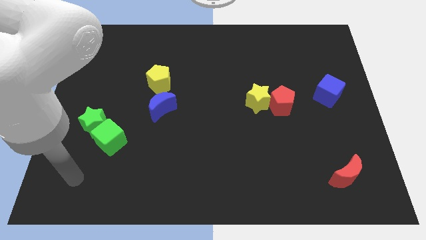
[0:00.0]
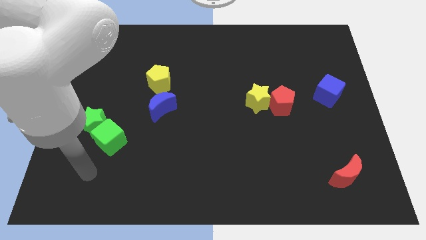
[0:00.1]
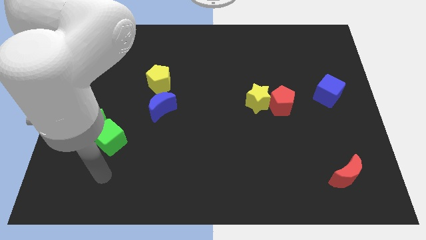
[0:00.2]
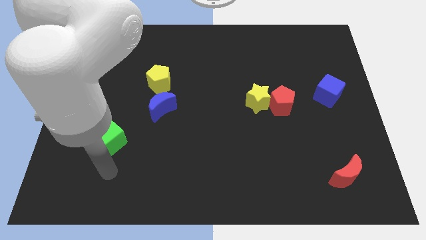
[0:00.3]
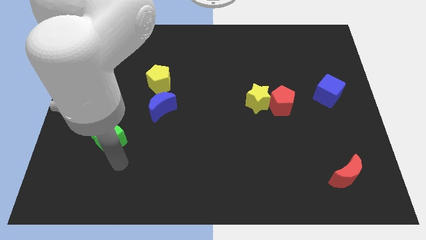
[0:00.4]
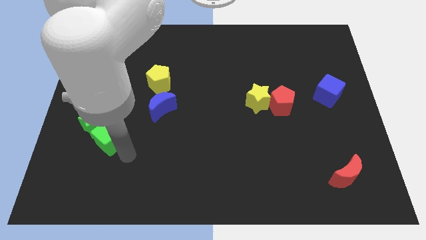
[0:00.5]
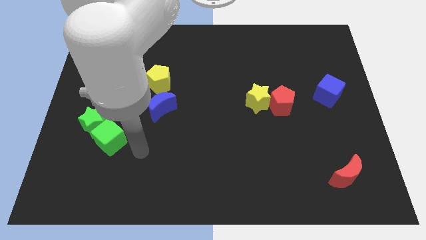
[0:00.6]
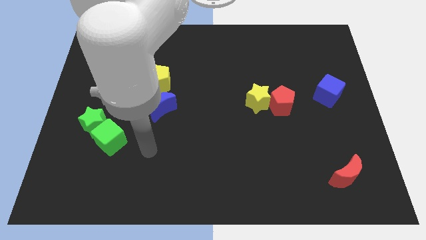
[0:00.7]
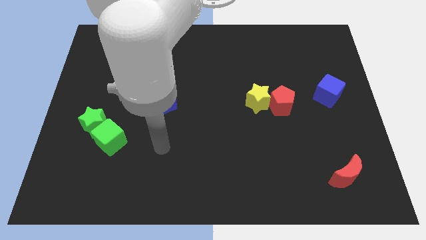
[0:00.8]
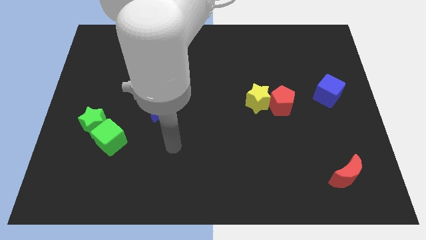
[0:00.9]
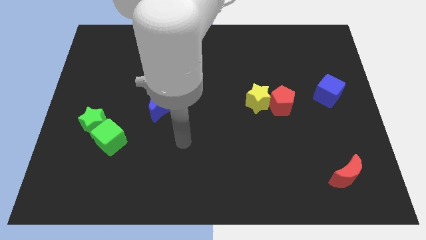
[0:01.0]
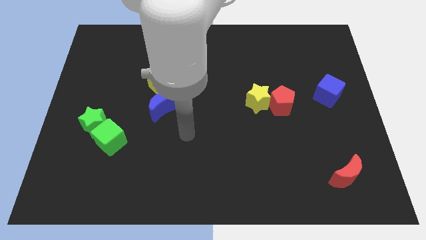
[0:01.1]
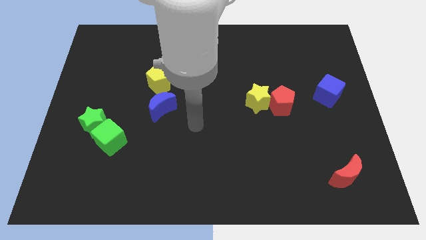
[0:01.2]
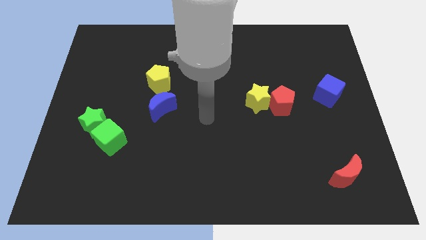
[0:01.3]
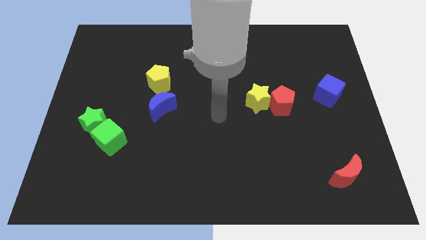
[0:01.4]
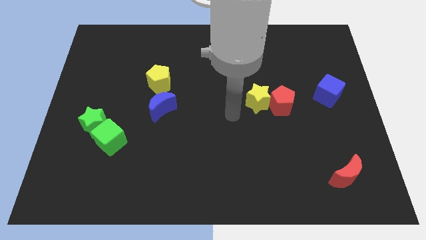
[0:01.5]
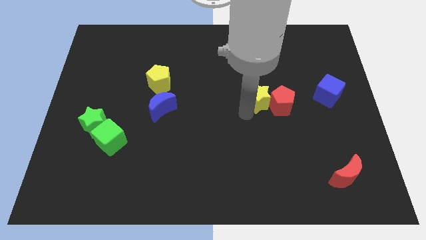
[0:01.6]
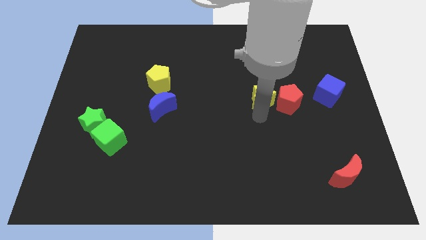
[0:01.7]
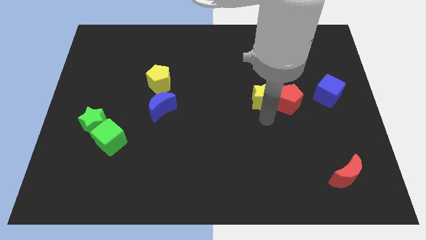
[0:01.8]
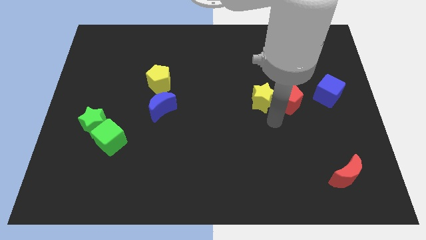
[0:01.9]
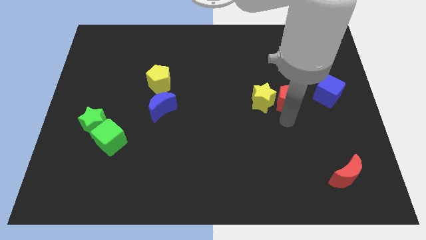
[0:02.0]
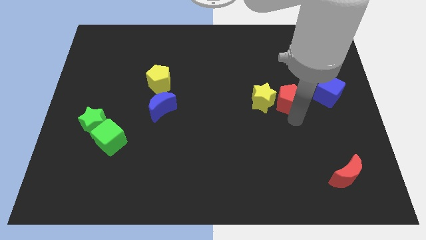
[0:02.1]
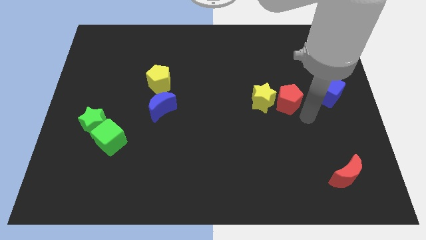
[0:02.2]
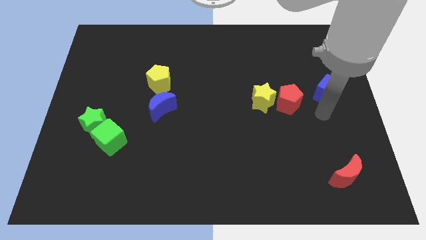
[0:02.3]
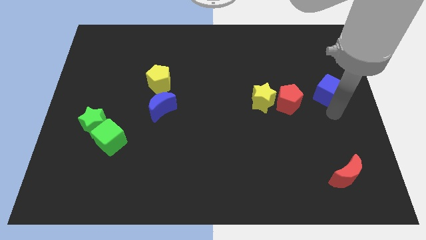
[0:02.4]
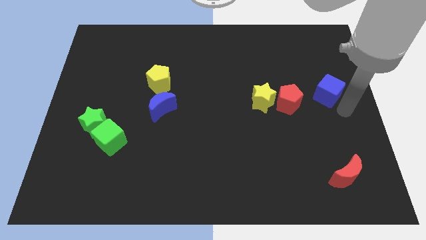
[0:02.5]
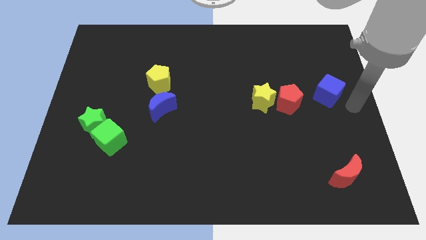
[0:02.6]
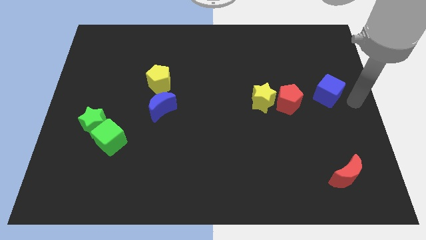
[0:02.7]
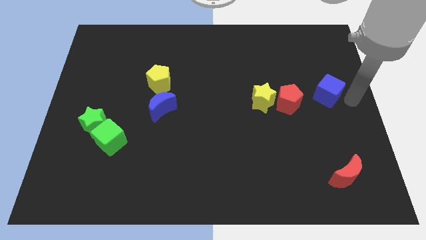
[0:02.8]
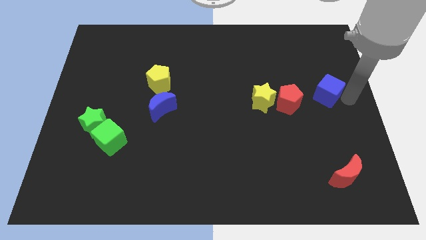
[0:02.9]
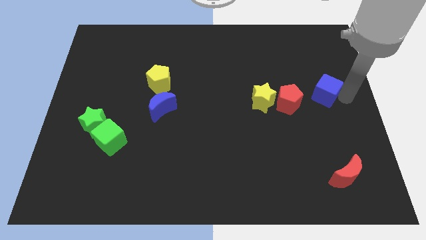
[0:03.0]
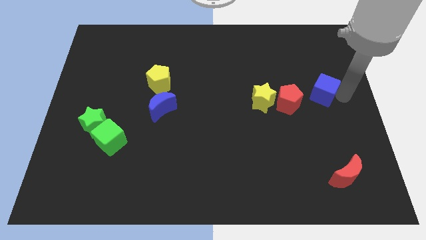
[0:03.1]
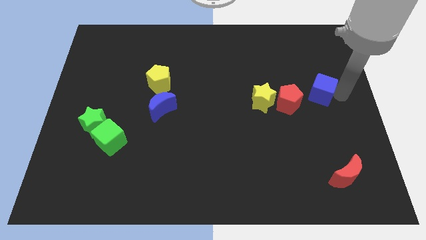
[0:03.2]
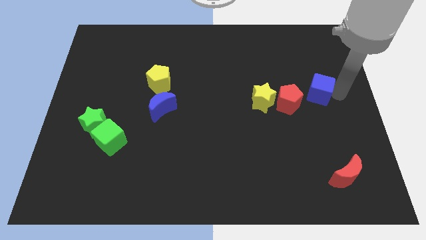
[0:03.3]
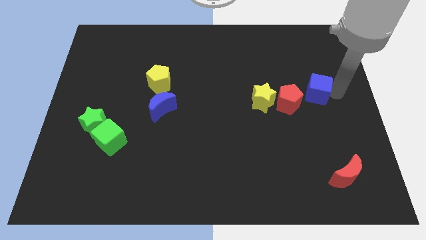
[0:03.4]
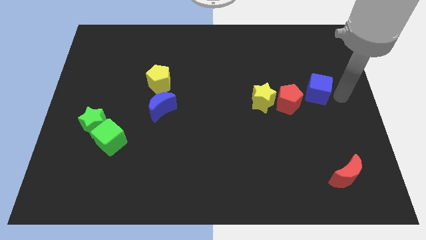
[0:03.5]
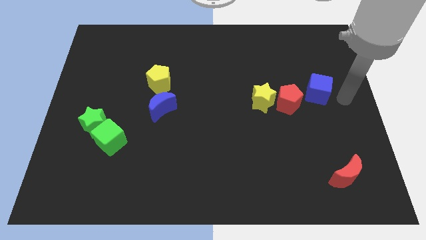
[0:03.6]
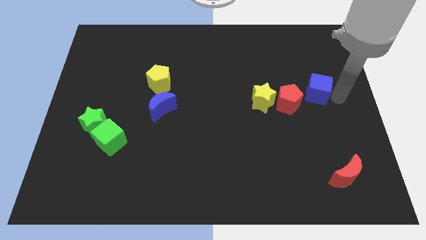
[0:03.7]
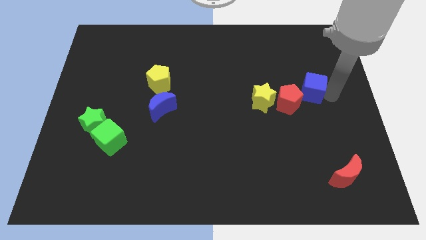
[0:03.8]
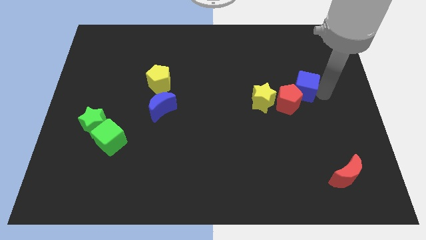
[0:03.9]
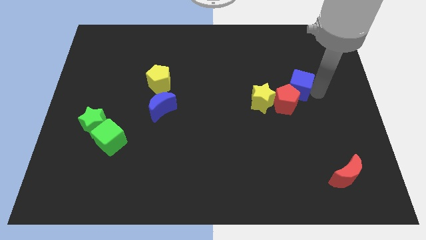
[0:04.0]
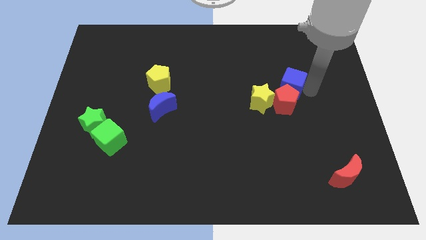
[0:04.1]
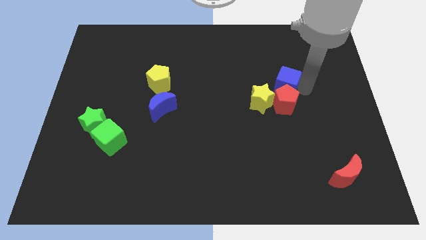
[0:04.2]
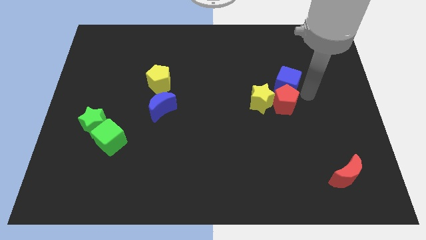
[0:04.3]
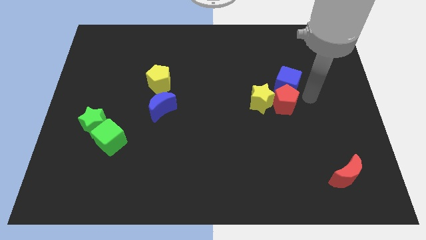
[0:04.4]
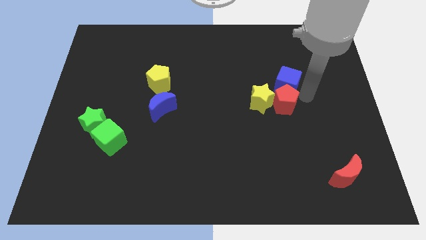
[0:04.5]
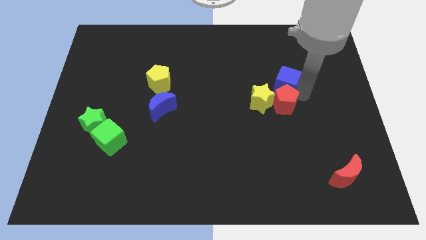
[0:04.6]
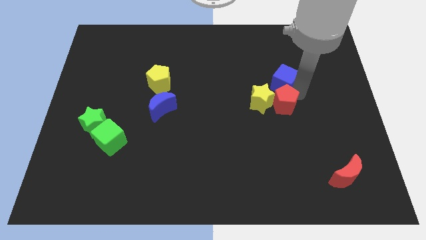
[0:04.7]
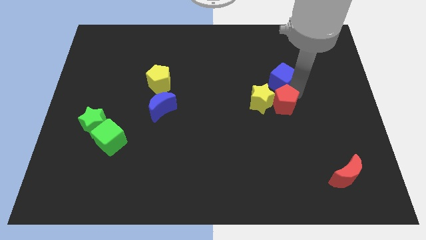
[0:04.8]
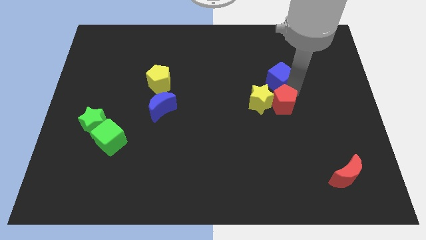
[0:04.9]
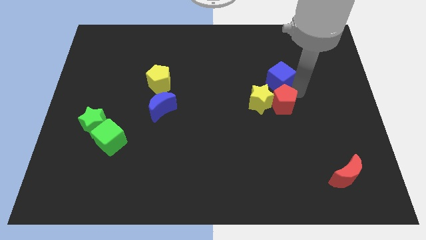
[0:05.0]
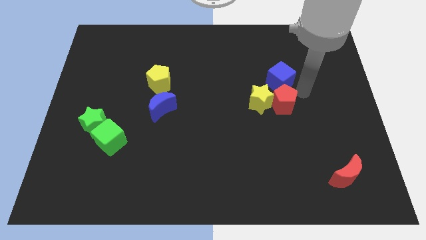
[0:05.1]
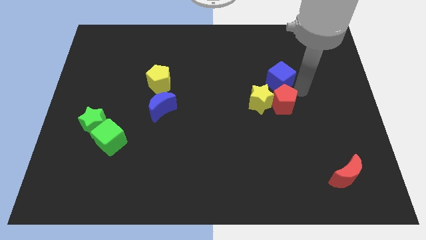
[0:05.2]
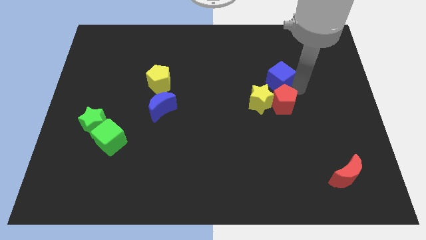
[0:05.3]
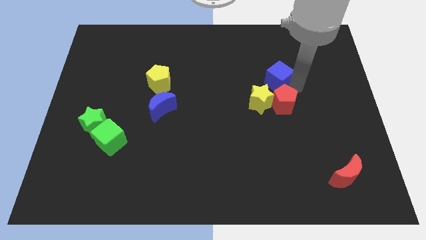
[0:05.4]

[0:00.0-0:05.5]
put the blue cube to the top of the yellow star

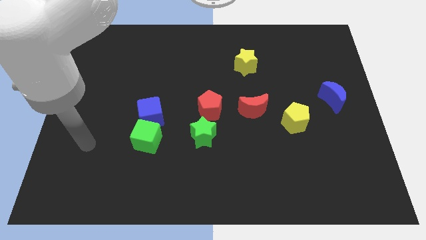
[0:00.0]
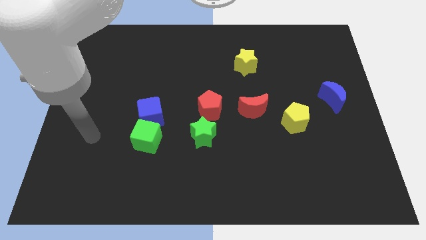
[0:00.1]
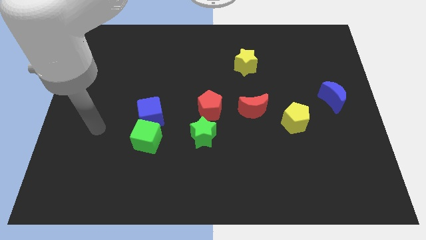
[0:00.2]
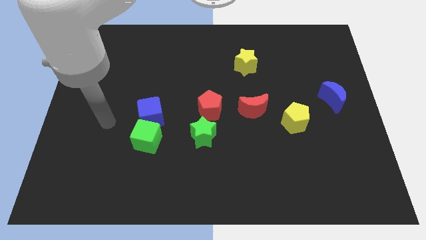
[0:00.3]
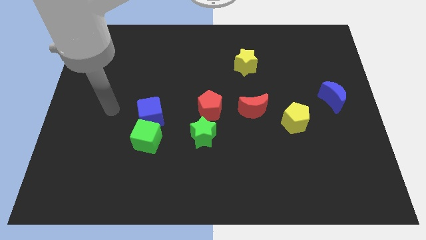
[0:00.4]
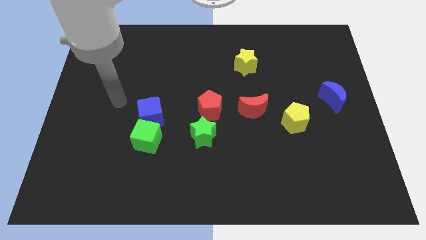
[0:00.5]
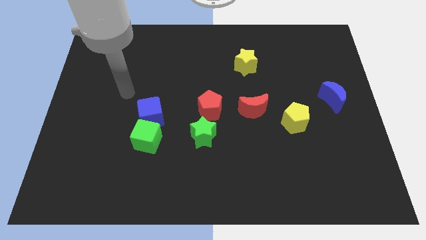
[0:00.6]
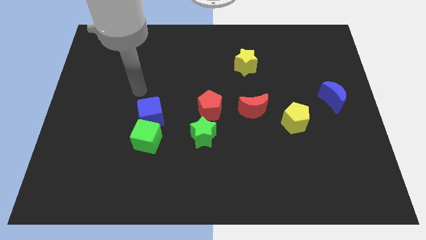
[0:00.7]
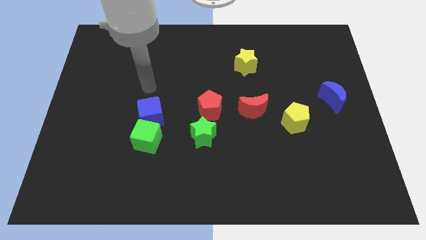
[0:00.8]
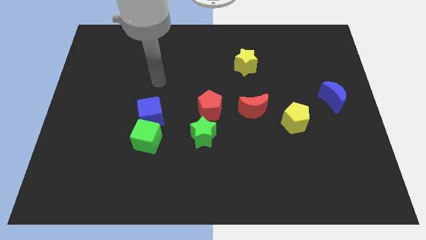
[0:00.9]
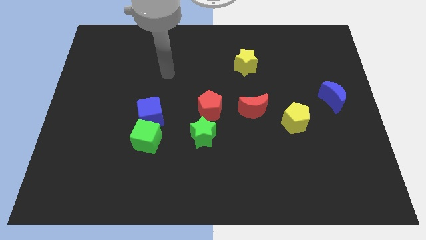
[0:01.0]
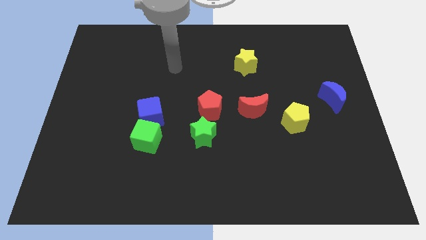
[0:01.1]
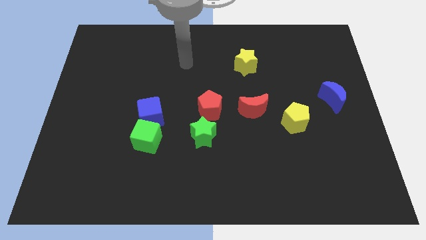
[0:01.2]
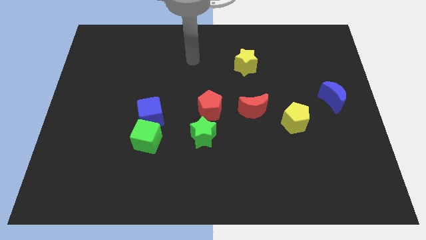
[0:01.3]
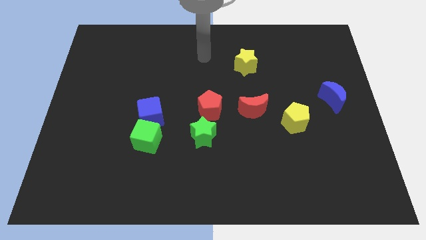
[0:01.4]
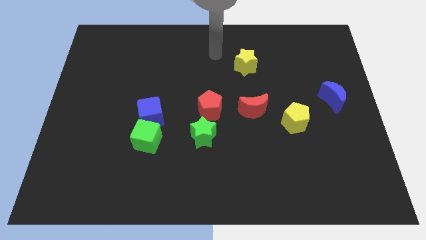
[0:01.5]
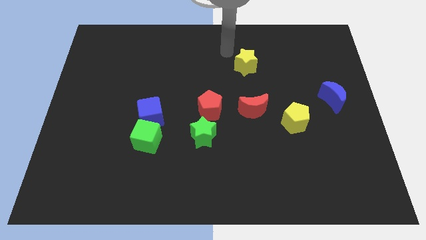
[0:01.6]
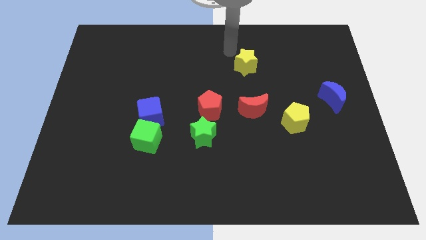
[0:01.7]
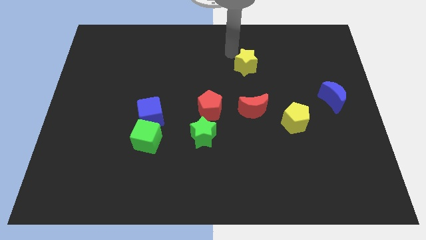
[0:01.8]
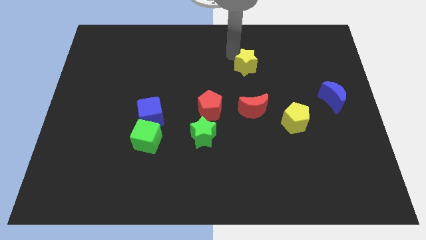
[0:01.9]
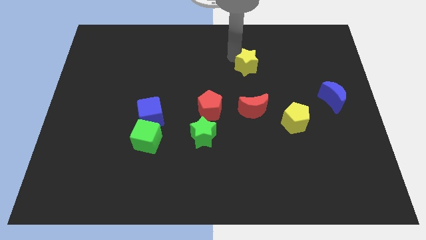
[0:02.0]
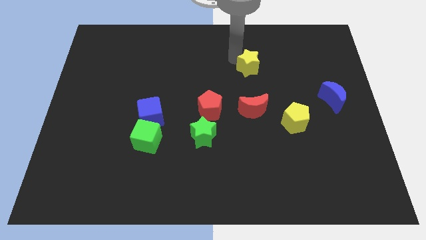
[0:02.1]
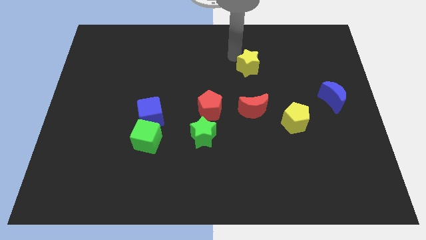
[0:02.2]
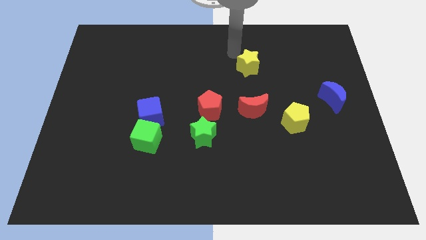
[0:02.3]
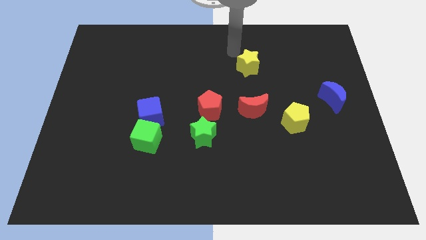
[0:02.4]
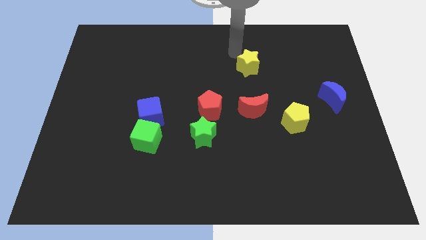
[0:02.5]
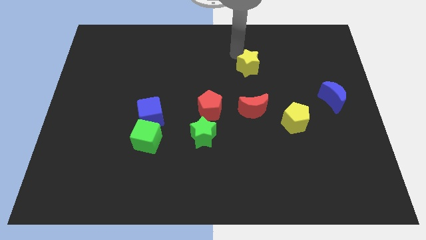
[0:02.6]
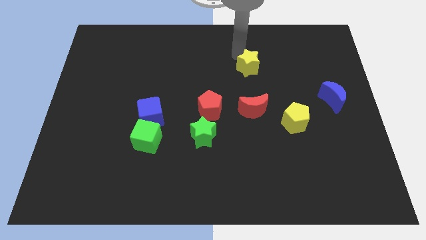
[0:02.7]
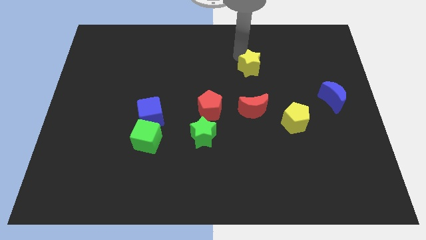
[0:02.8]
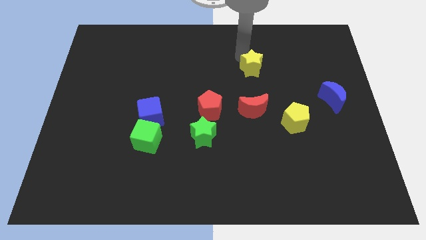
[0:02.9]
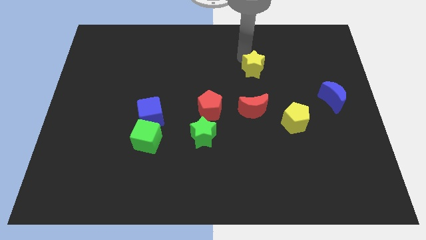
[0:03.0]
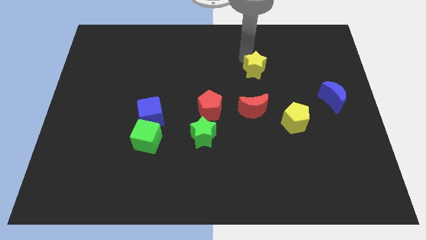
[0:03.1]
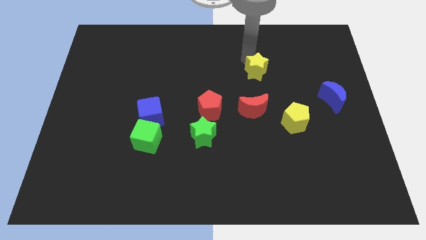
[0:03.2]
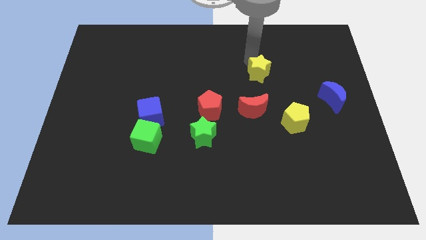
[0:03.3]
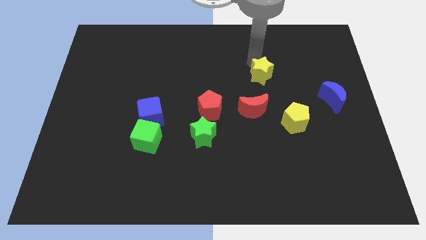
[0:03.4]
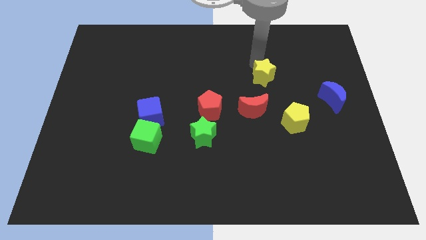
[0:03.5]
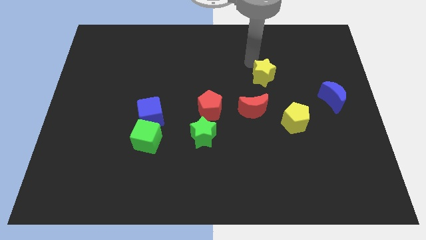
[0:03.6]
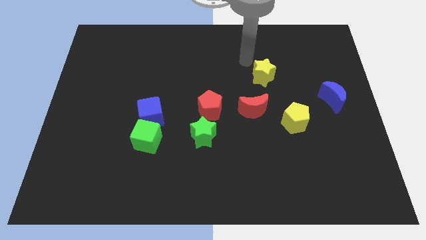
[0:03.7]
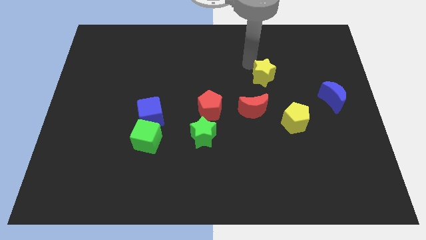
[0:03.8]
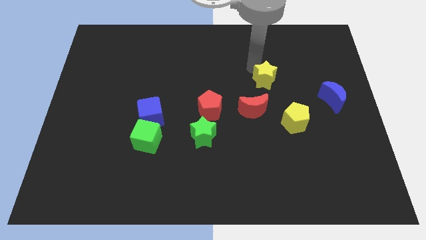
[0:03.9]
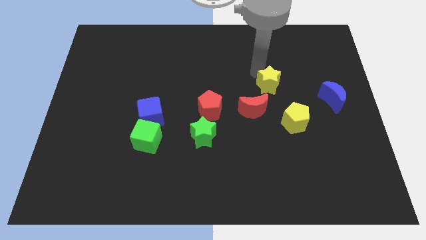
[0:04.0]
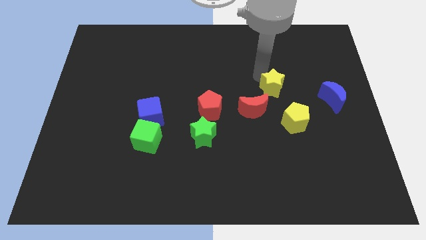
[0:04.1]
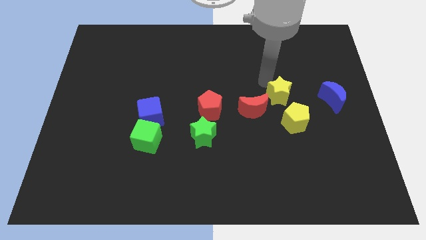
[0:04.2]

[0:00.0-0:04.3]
move the yellow star to the right of the red moon
